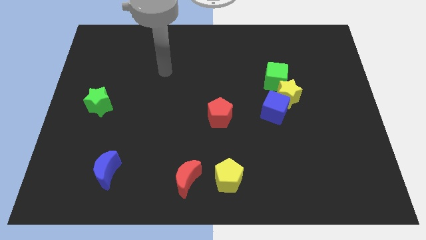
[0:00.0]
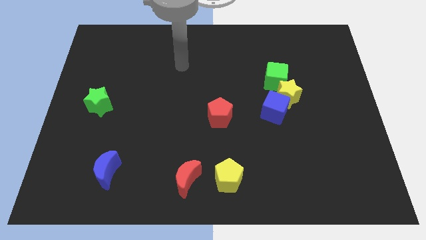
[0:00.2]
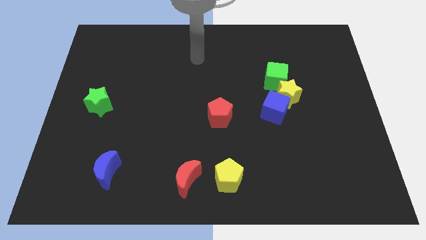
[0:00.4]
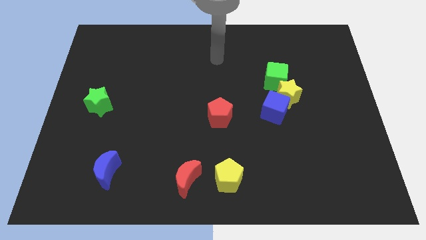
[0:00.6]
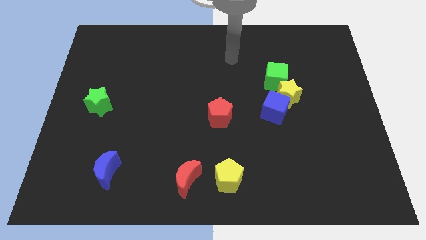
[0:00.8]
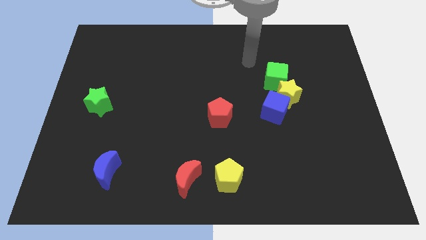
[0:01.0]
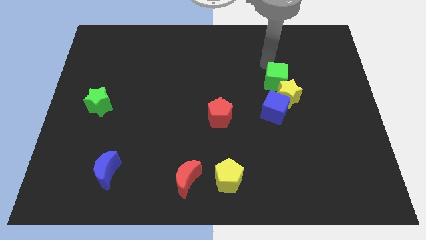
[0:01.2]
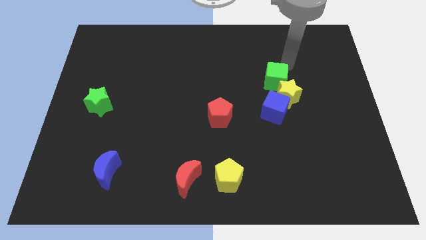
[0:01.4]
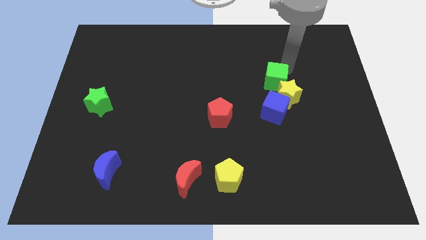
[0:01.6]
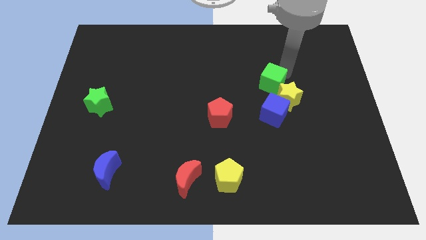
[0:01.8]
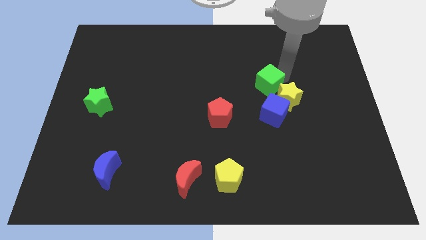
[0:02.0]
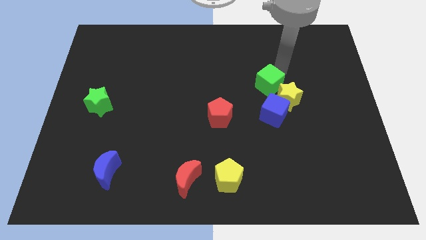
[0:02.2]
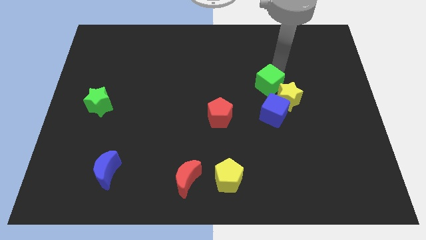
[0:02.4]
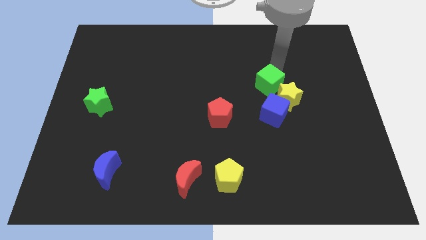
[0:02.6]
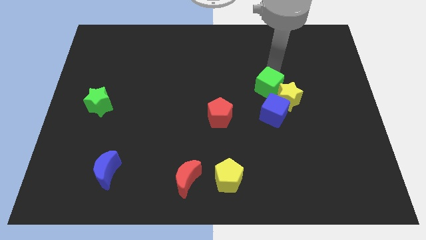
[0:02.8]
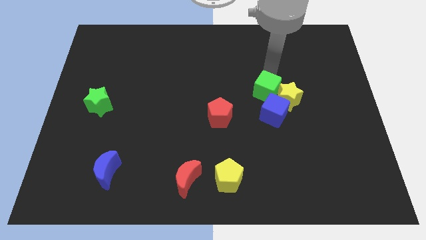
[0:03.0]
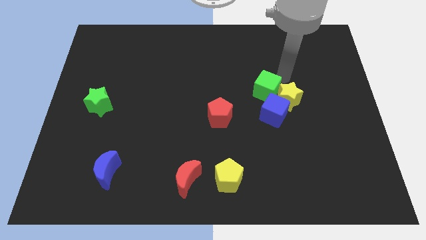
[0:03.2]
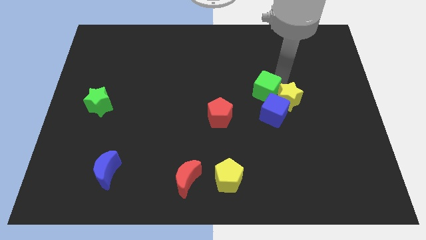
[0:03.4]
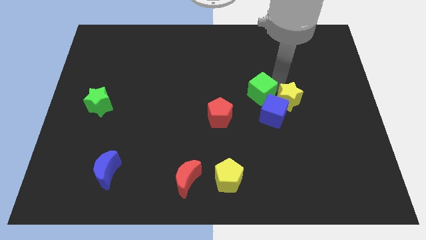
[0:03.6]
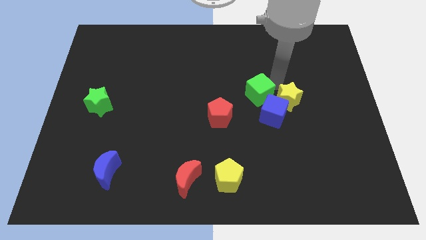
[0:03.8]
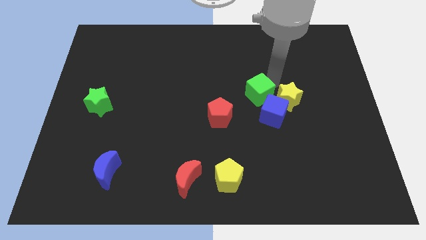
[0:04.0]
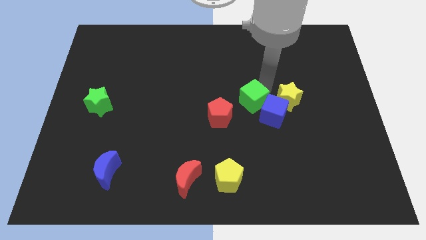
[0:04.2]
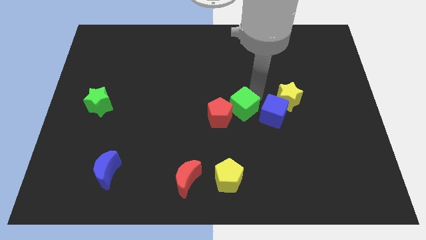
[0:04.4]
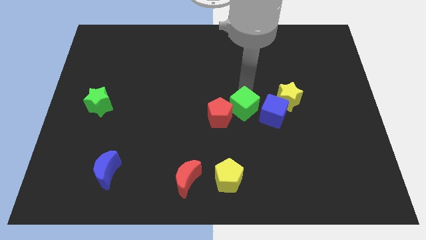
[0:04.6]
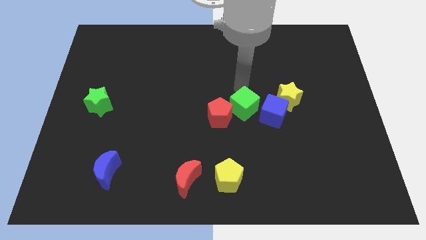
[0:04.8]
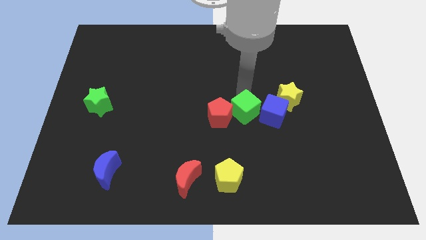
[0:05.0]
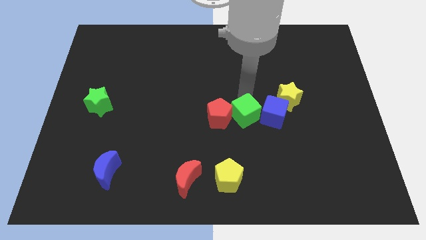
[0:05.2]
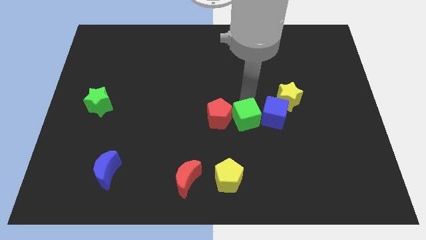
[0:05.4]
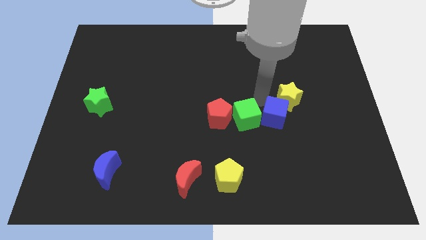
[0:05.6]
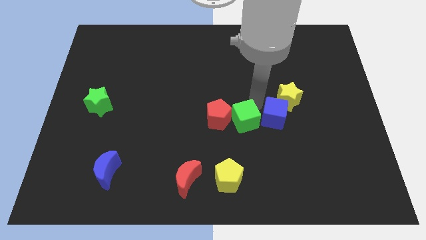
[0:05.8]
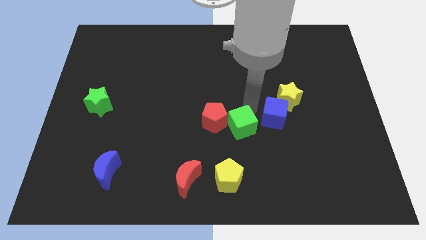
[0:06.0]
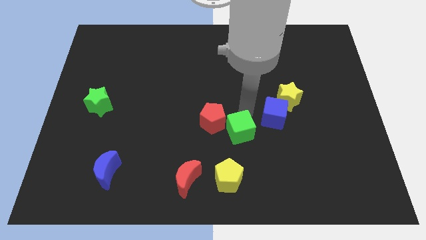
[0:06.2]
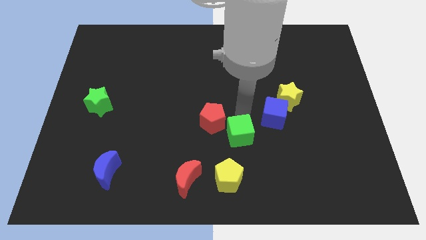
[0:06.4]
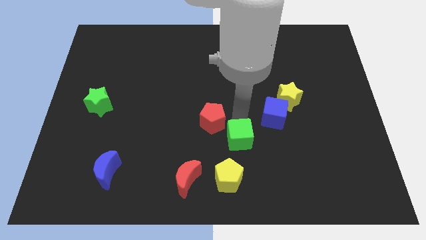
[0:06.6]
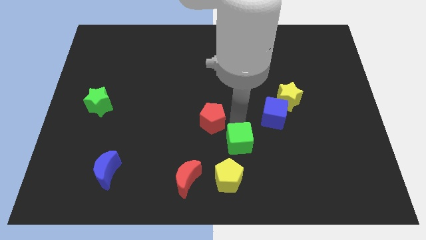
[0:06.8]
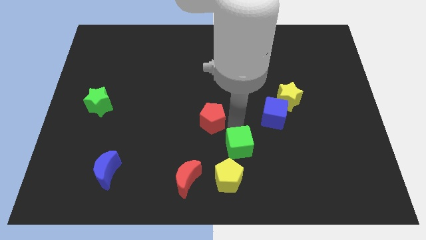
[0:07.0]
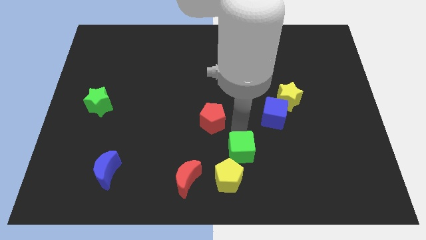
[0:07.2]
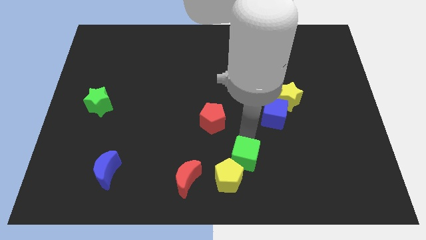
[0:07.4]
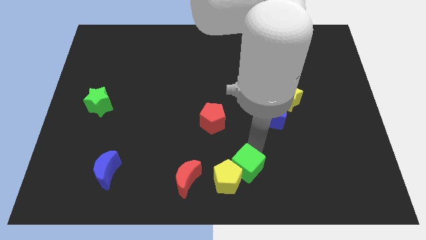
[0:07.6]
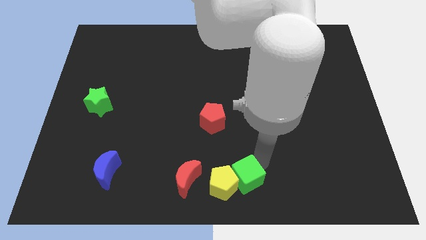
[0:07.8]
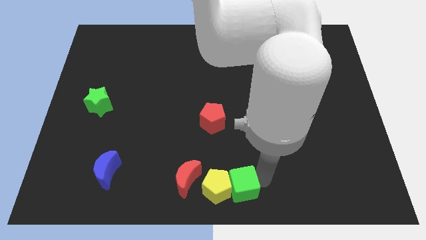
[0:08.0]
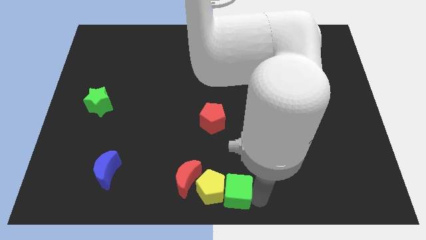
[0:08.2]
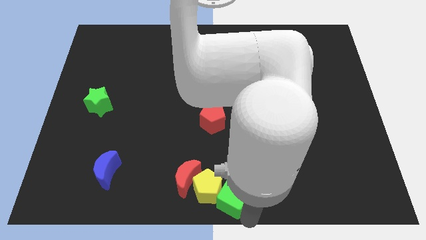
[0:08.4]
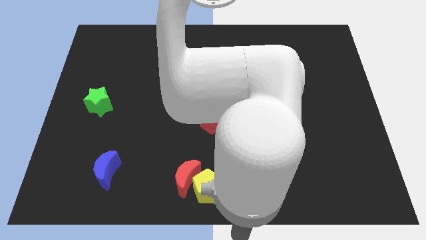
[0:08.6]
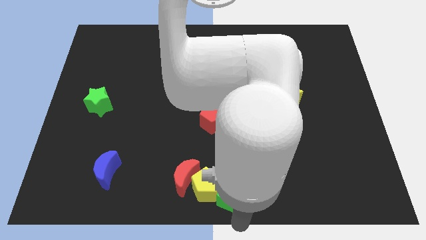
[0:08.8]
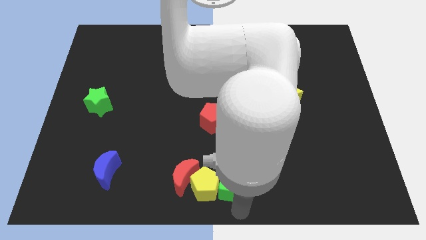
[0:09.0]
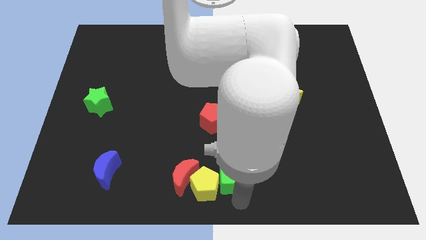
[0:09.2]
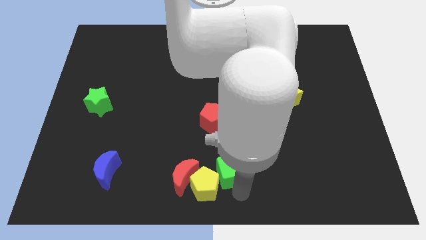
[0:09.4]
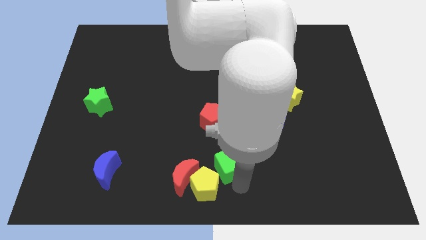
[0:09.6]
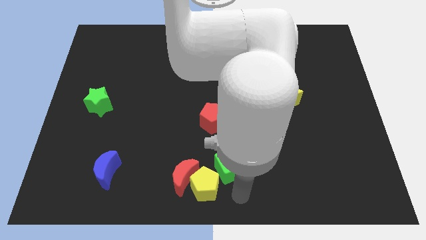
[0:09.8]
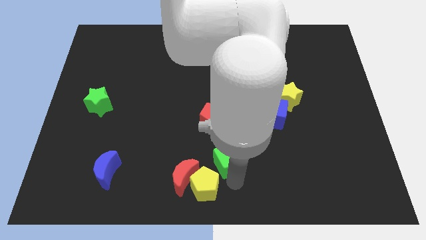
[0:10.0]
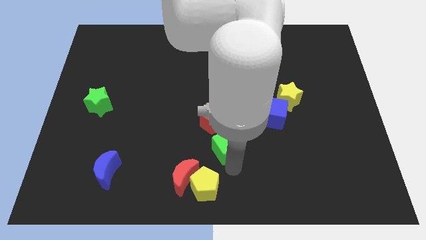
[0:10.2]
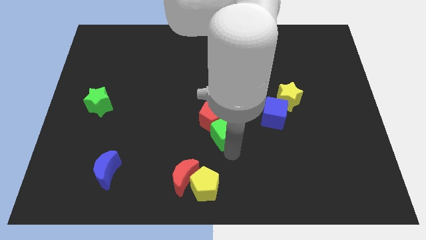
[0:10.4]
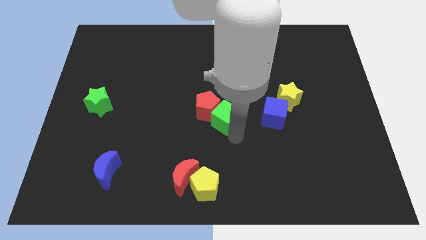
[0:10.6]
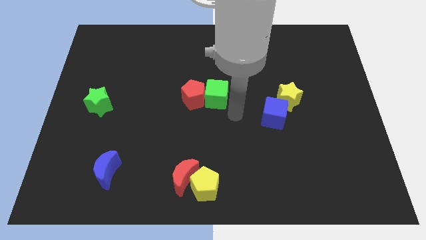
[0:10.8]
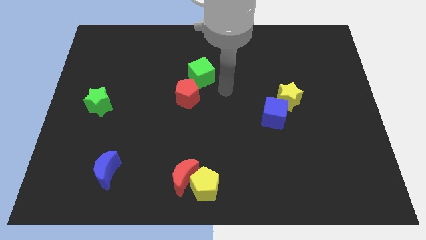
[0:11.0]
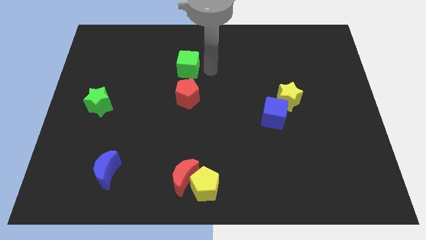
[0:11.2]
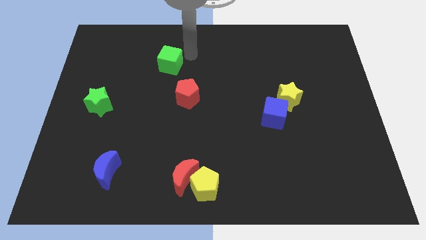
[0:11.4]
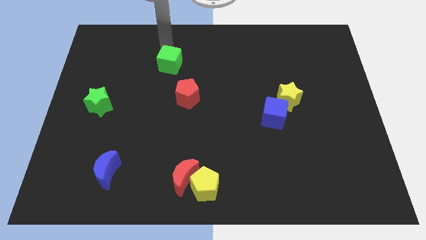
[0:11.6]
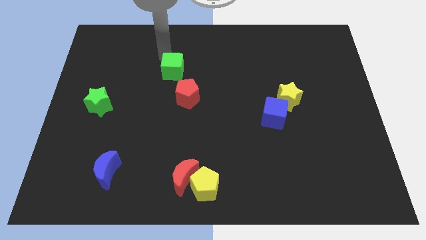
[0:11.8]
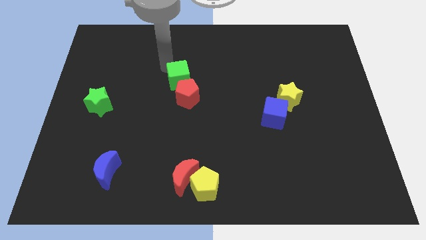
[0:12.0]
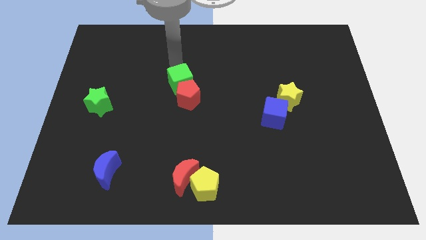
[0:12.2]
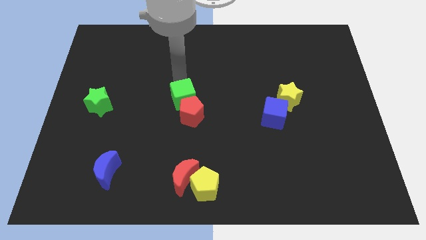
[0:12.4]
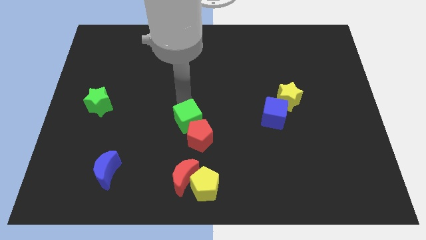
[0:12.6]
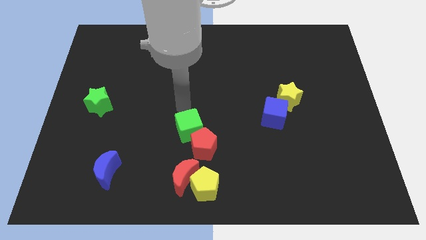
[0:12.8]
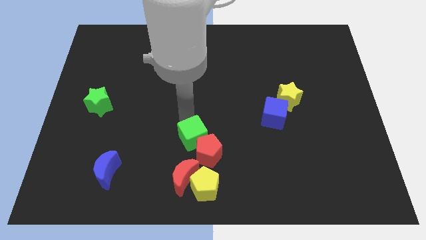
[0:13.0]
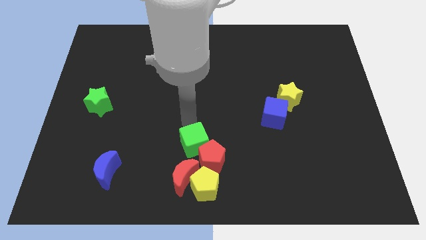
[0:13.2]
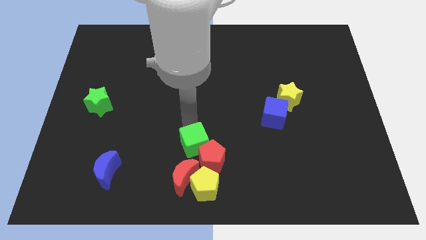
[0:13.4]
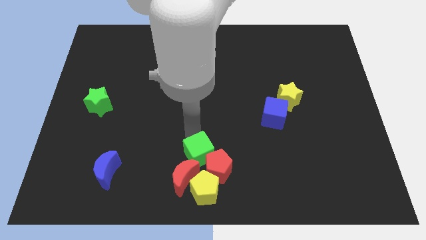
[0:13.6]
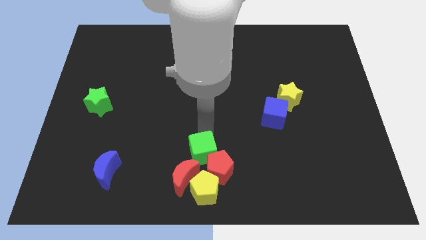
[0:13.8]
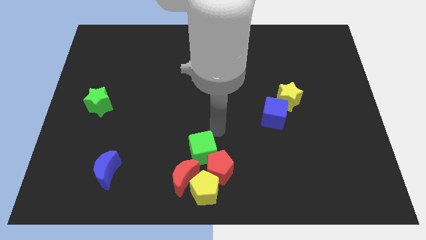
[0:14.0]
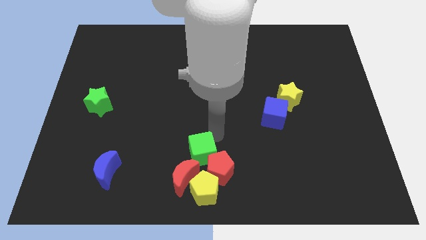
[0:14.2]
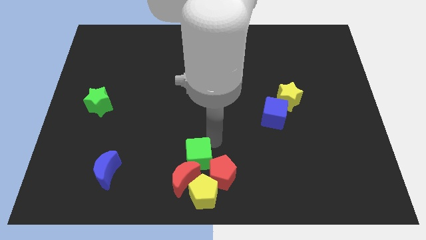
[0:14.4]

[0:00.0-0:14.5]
move the green cube to the red moon

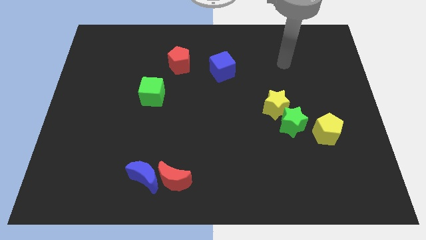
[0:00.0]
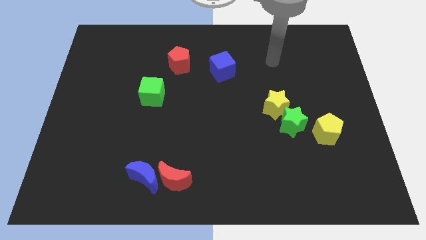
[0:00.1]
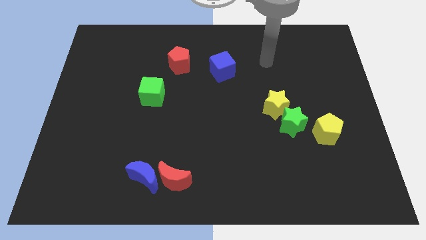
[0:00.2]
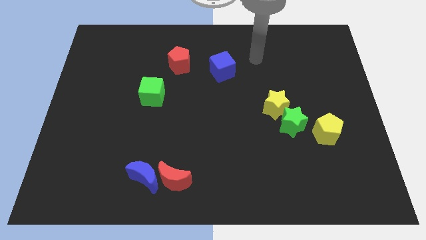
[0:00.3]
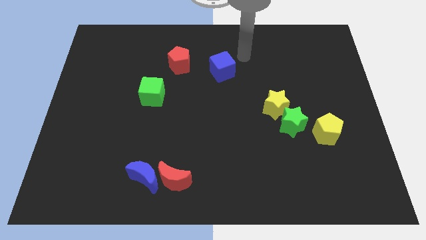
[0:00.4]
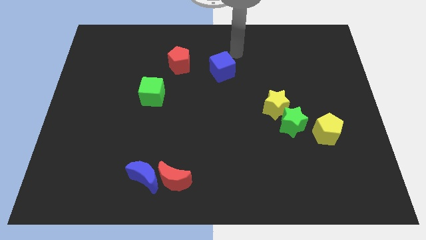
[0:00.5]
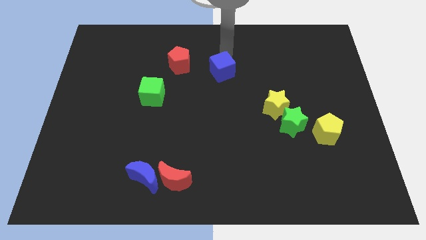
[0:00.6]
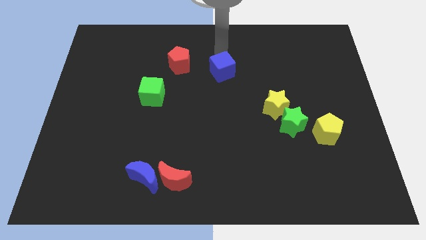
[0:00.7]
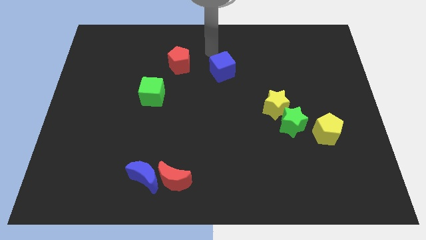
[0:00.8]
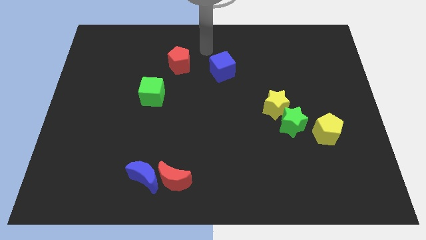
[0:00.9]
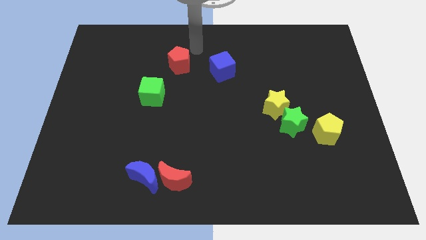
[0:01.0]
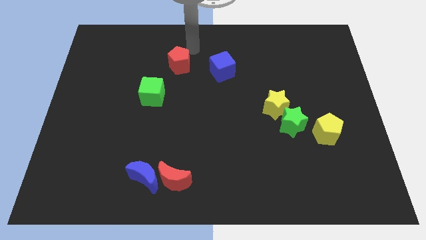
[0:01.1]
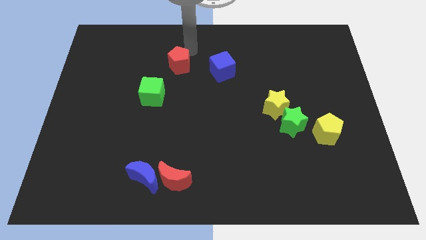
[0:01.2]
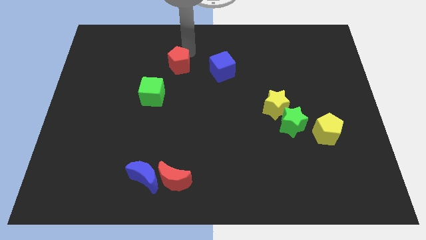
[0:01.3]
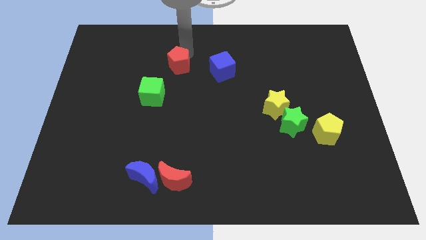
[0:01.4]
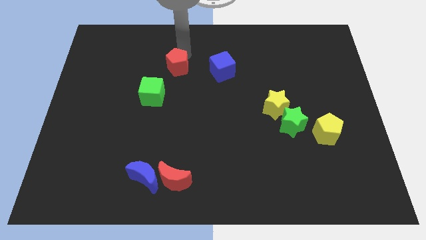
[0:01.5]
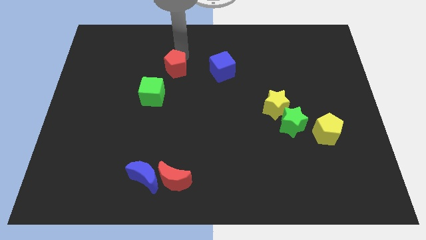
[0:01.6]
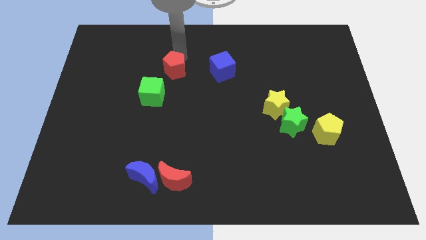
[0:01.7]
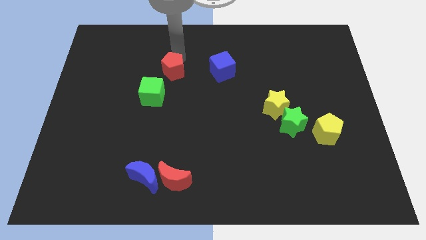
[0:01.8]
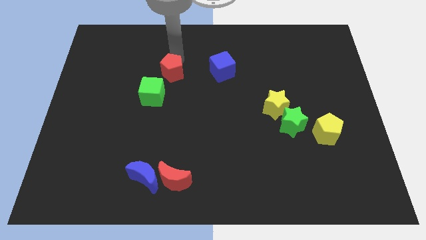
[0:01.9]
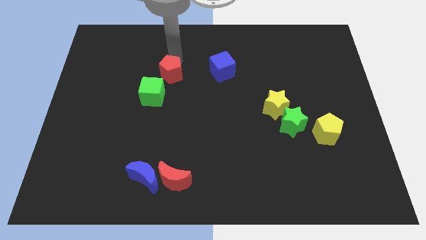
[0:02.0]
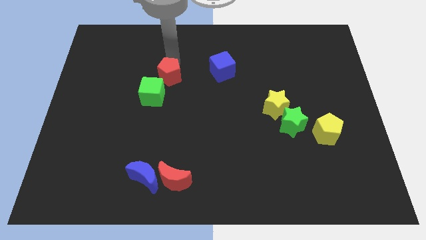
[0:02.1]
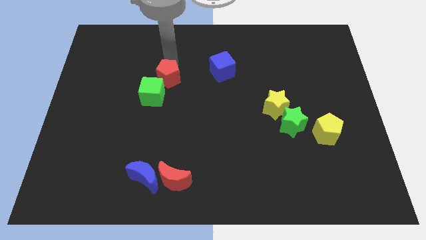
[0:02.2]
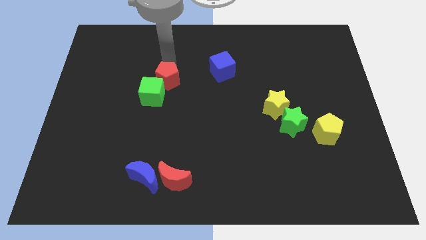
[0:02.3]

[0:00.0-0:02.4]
slide the red pentagon close to the green cube
